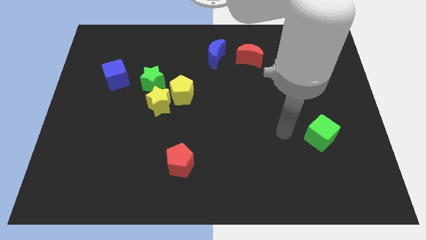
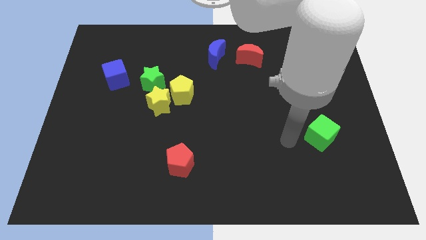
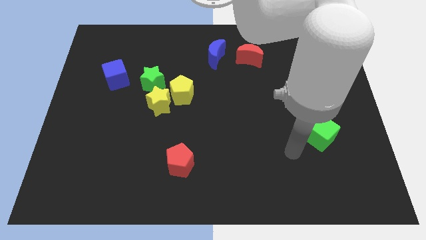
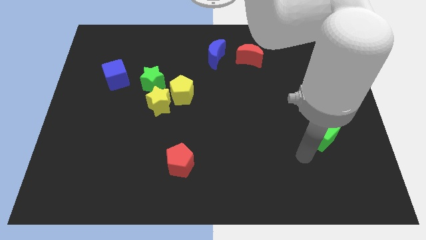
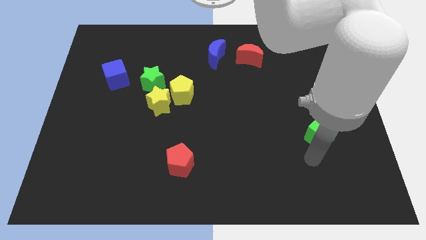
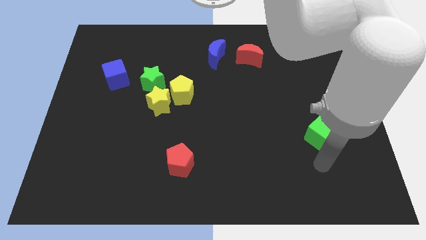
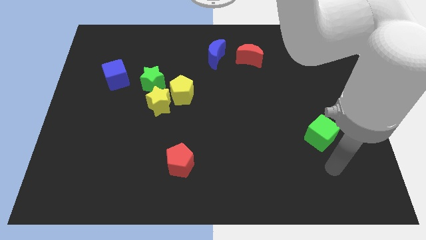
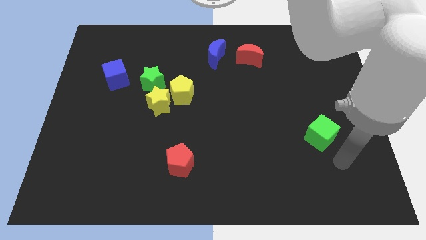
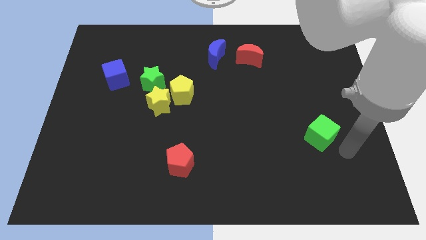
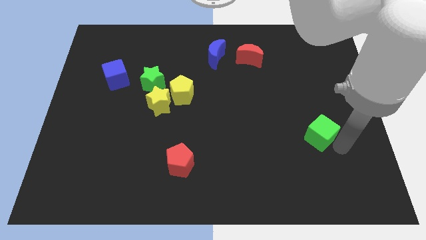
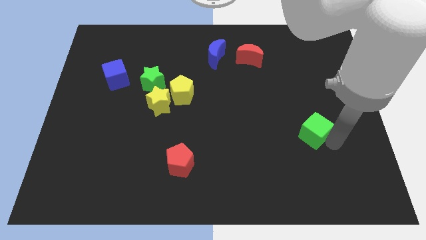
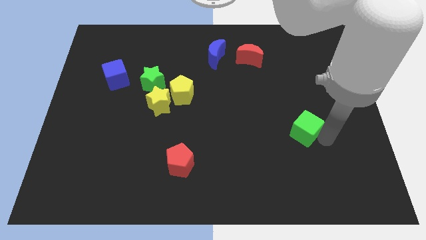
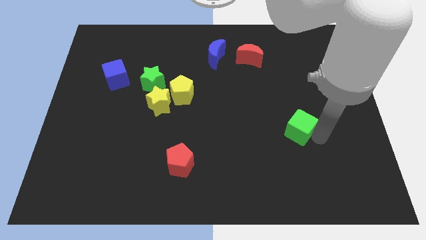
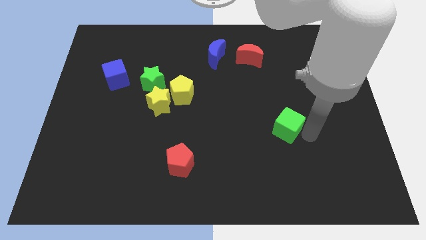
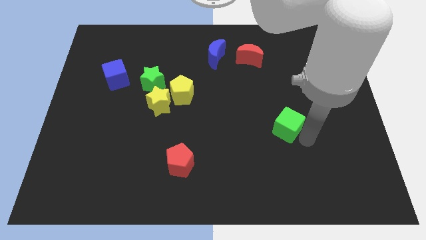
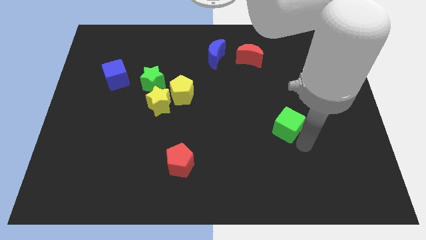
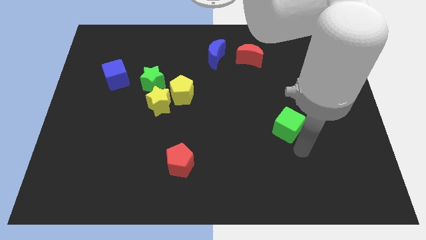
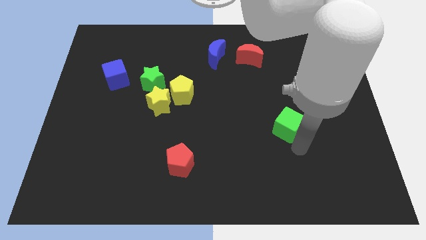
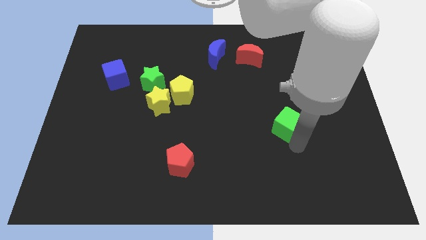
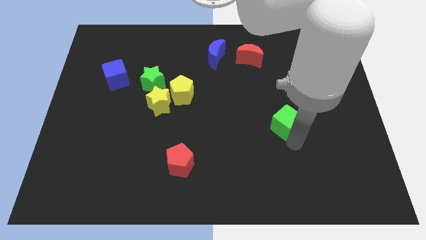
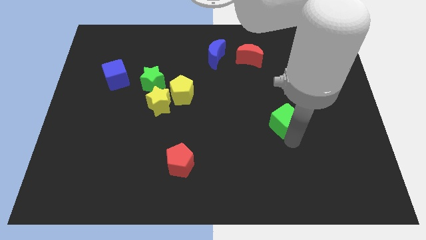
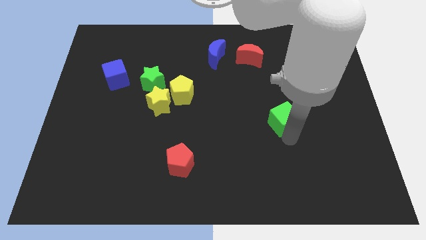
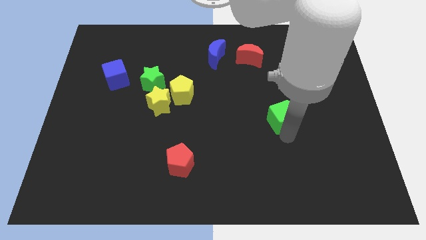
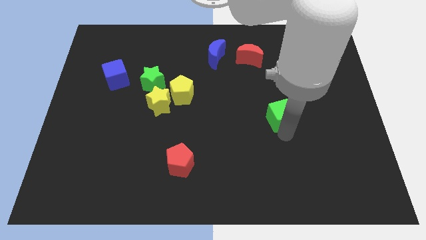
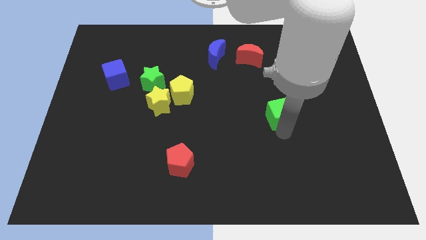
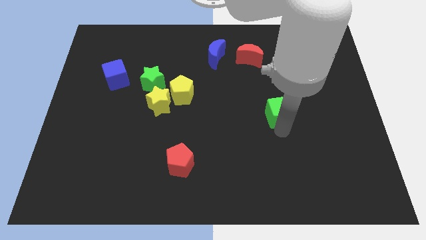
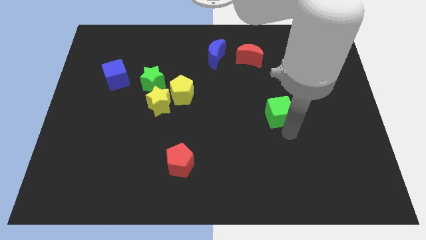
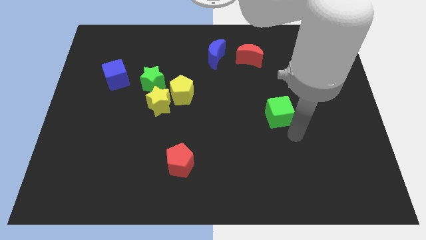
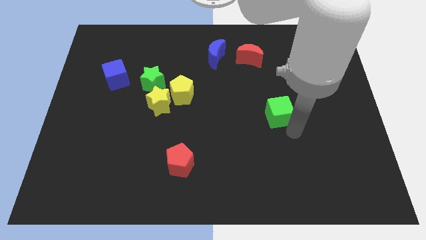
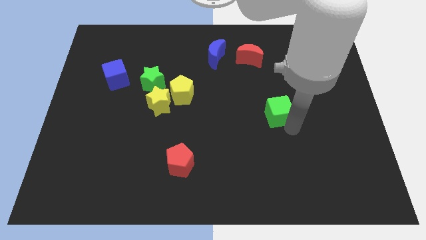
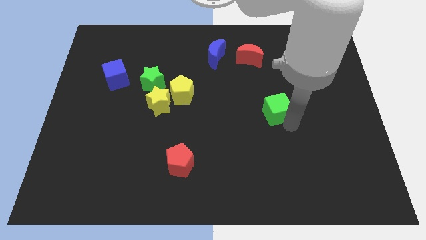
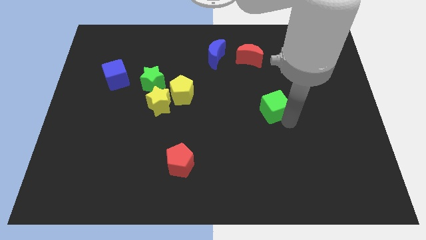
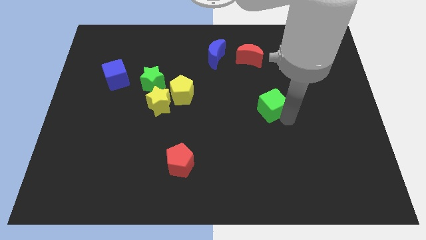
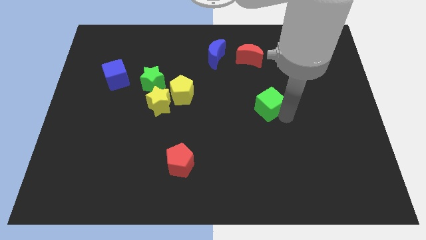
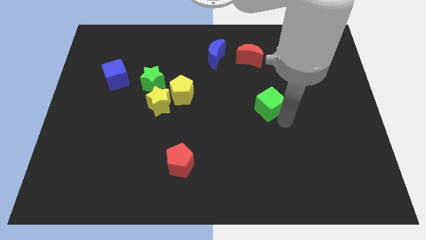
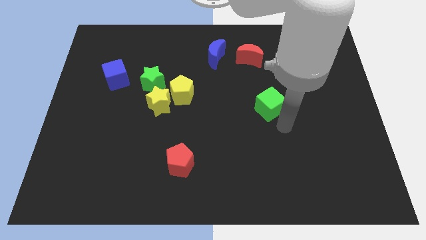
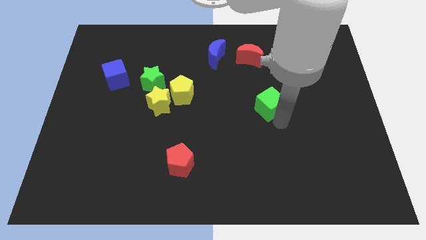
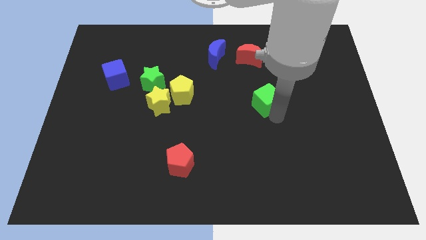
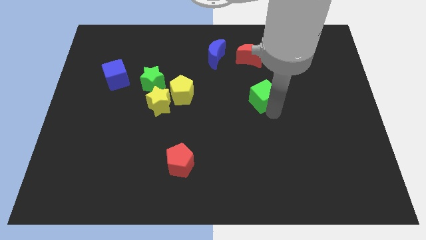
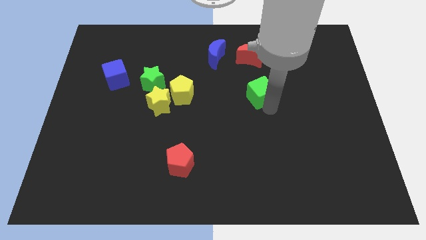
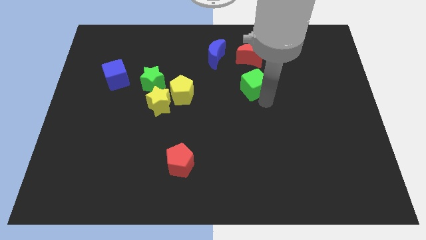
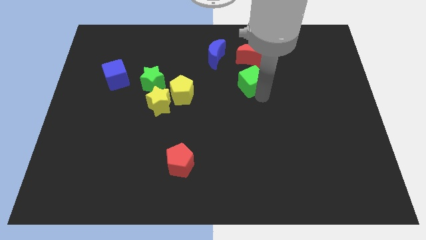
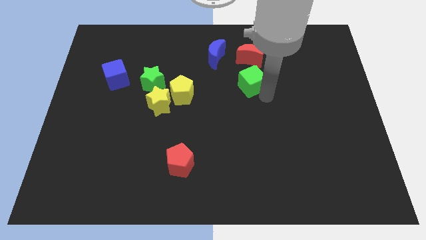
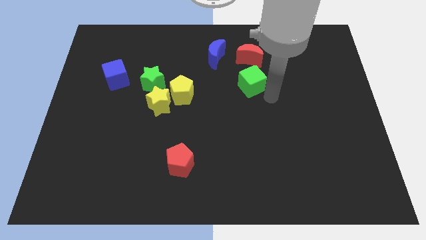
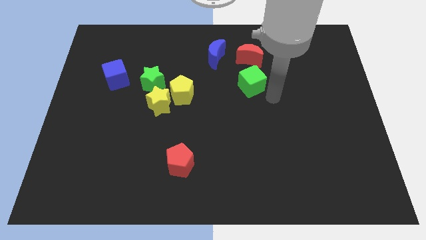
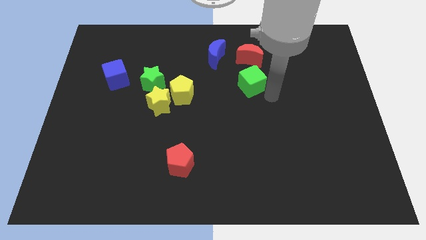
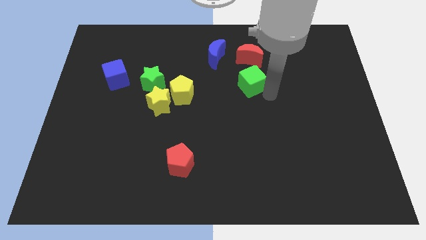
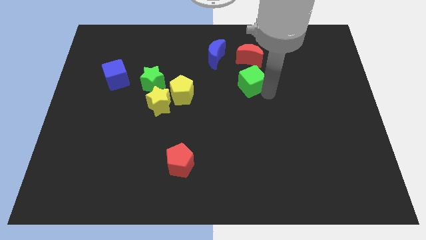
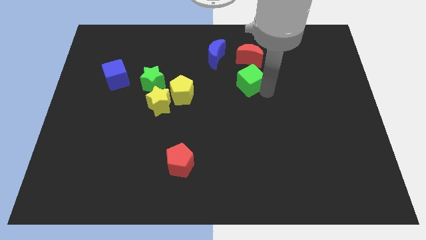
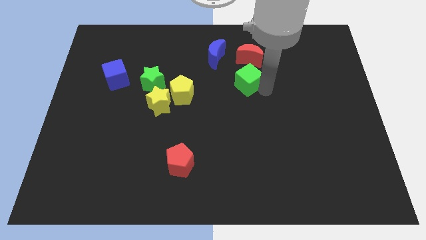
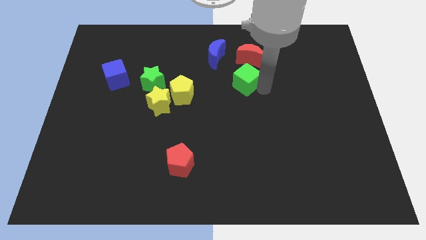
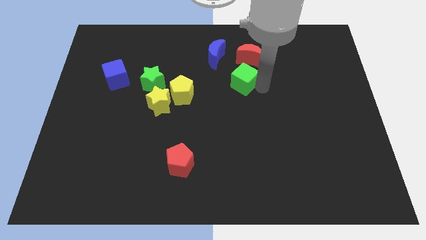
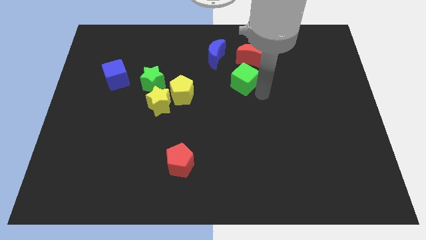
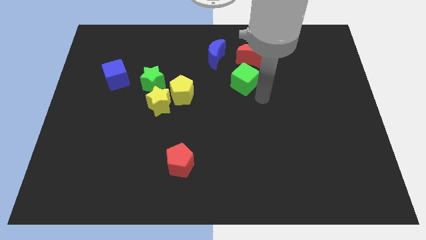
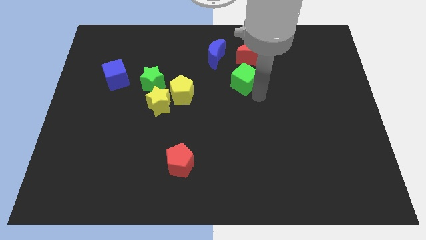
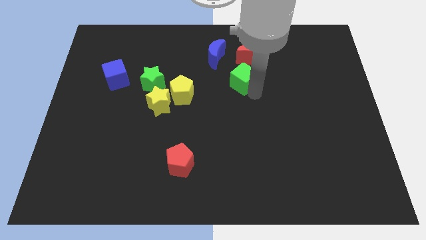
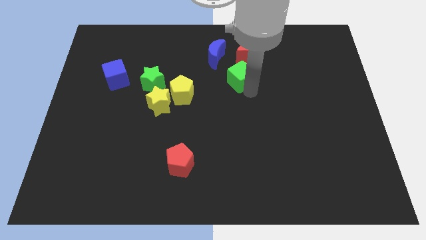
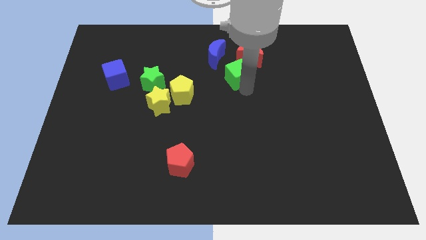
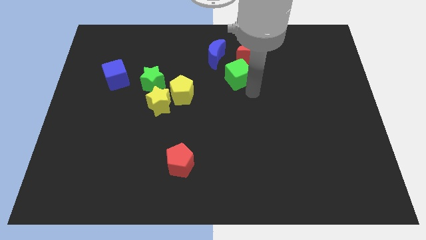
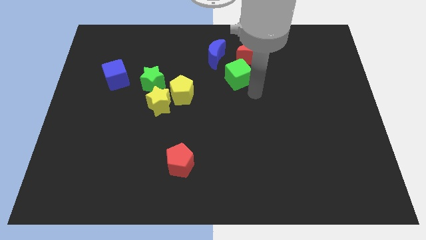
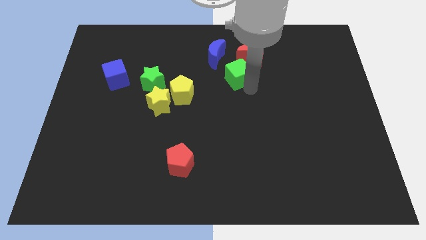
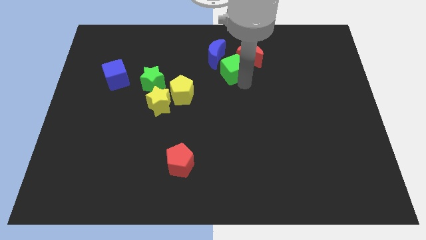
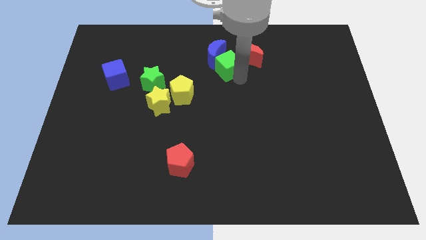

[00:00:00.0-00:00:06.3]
move the green cube next to the blue moon

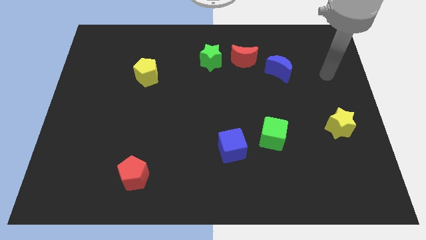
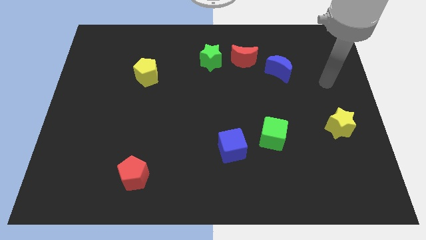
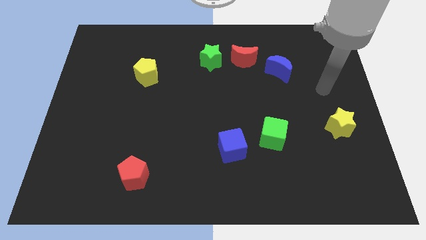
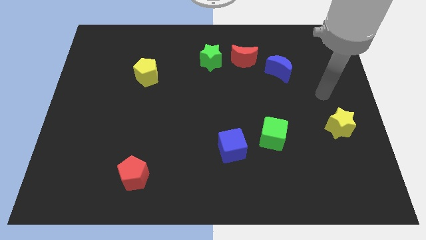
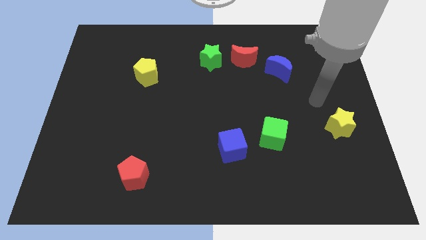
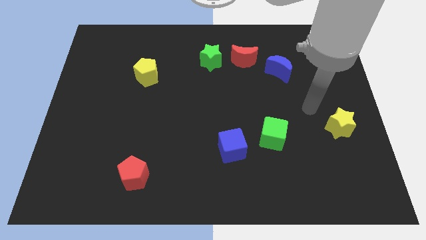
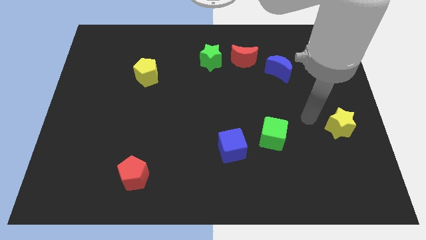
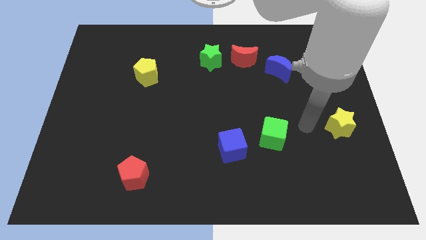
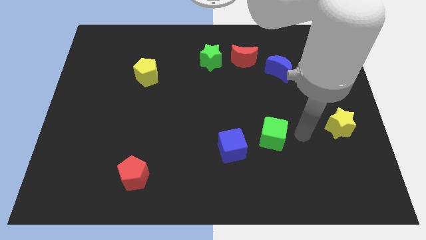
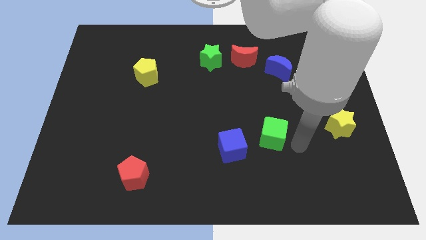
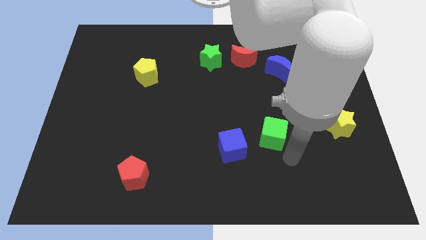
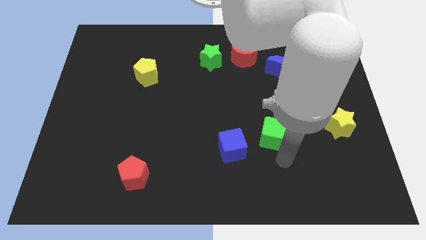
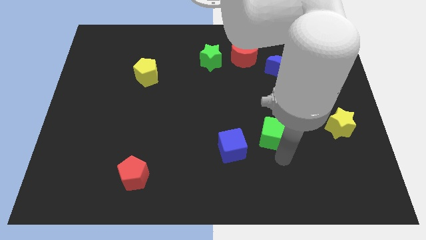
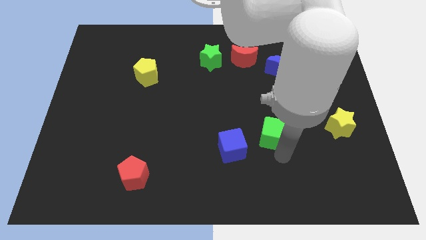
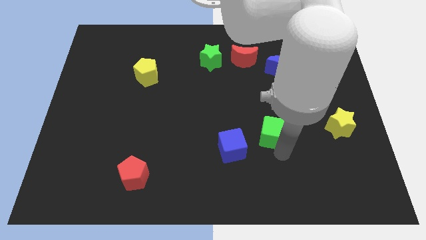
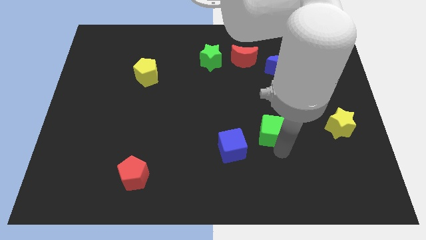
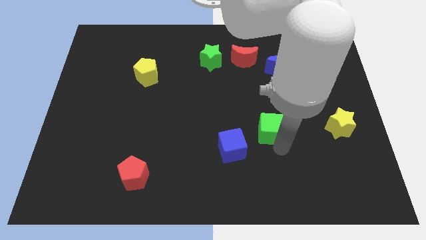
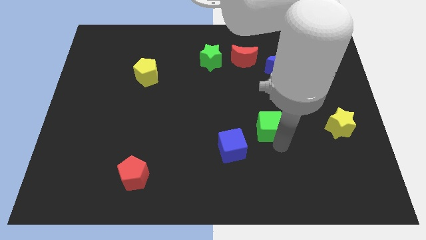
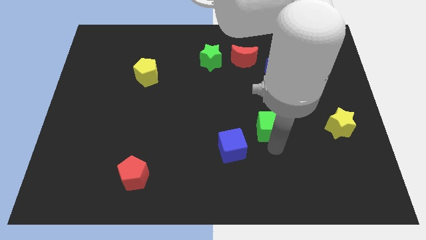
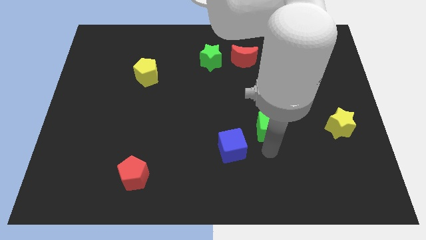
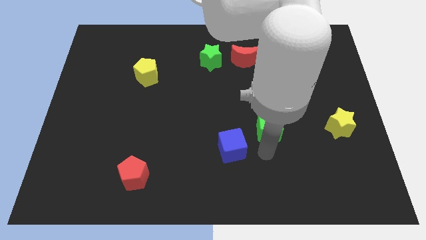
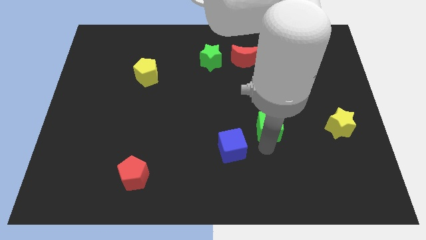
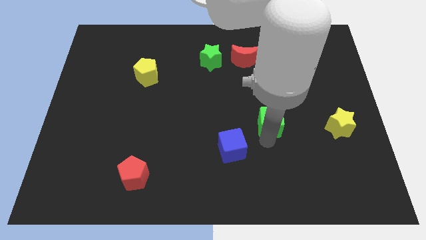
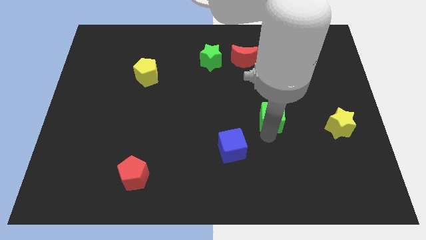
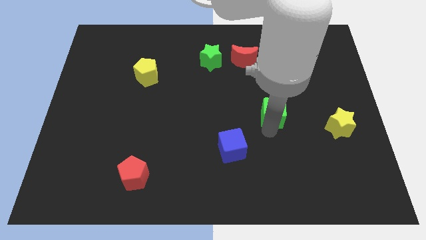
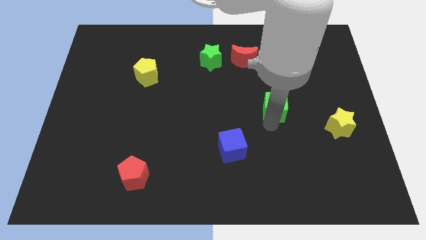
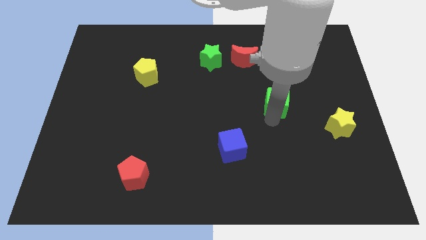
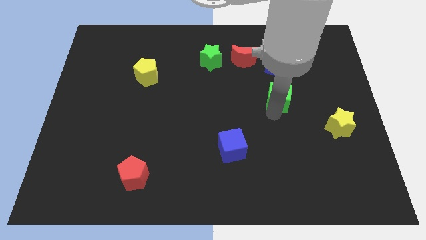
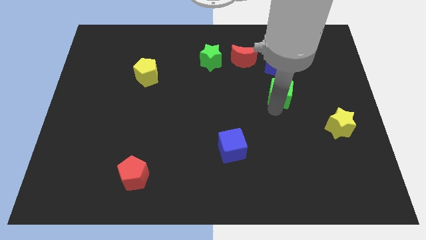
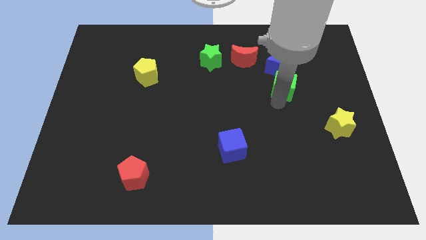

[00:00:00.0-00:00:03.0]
put the green cube close to the blue moon
